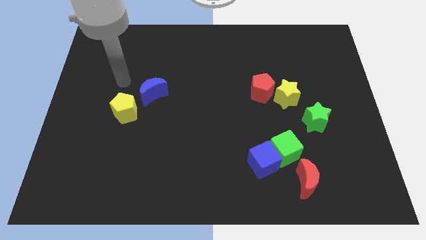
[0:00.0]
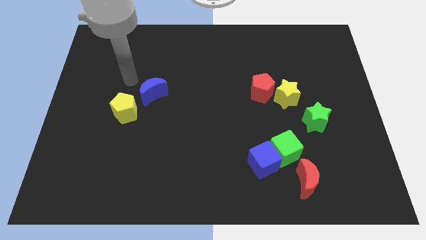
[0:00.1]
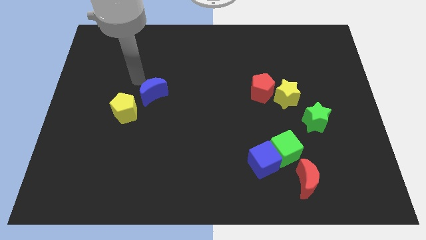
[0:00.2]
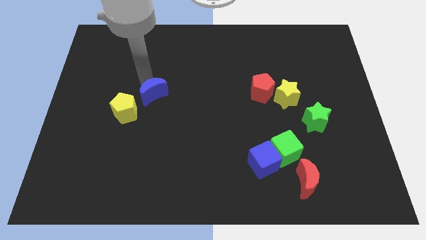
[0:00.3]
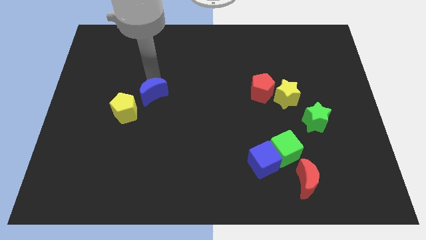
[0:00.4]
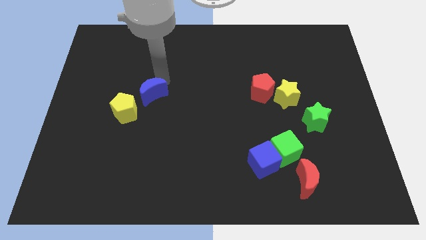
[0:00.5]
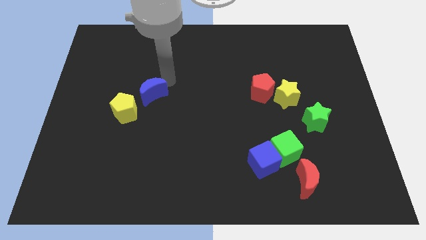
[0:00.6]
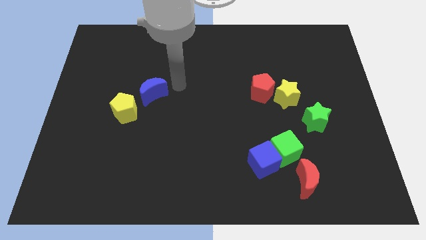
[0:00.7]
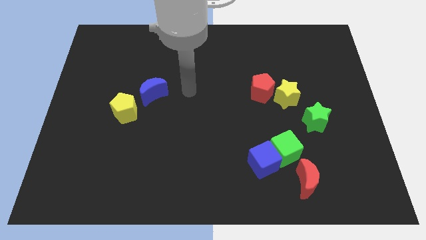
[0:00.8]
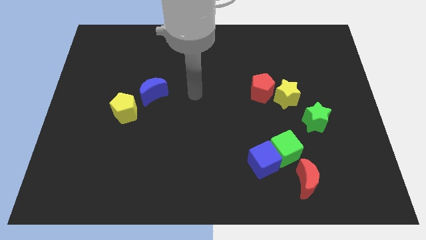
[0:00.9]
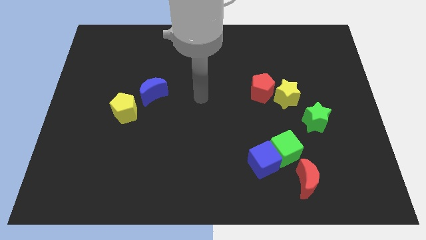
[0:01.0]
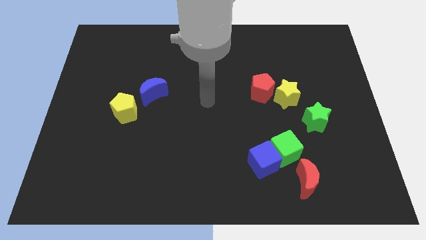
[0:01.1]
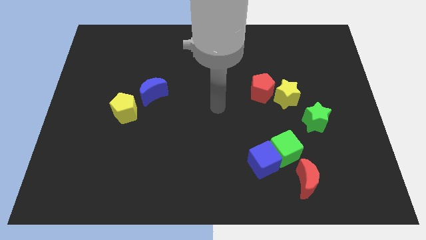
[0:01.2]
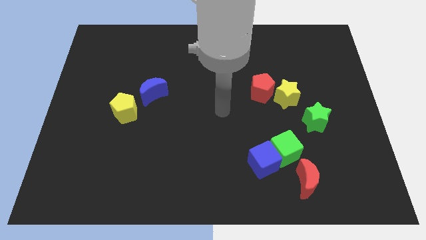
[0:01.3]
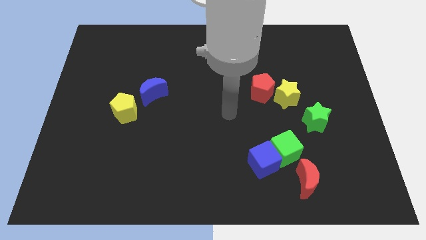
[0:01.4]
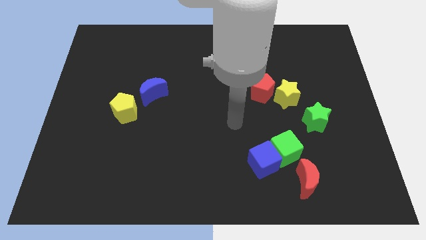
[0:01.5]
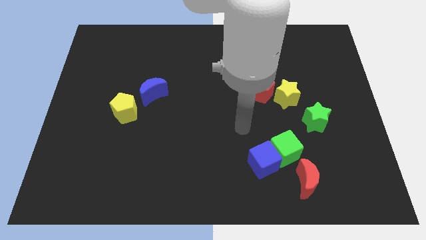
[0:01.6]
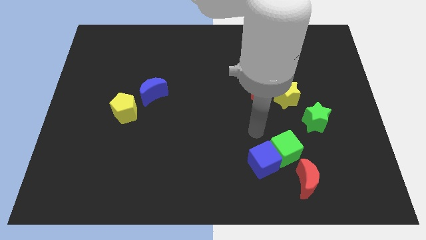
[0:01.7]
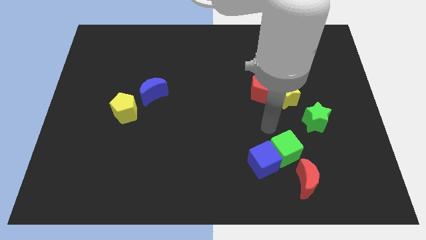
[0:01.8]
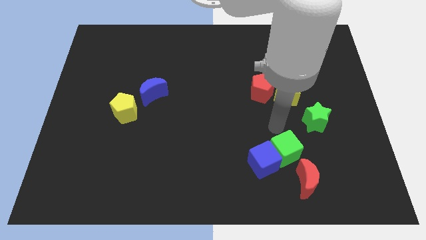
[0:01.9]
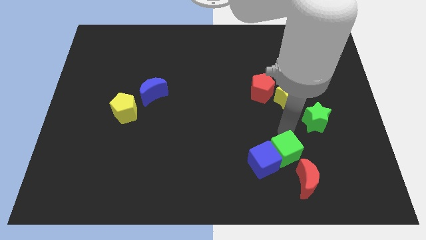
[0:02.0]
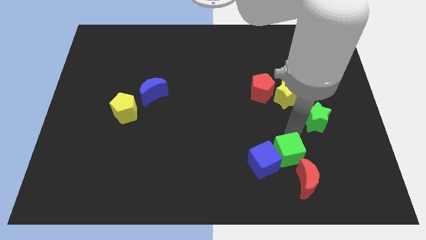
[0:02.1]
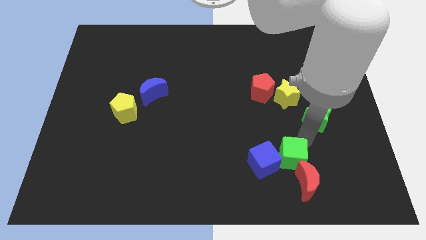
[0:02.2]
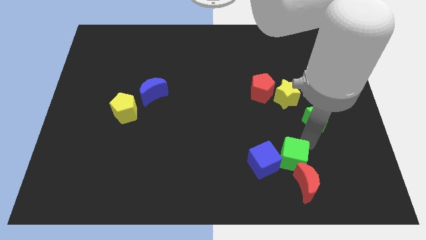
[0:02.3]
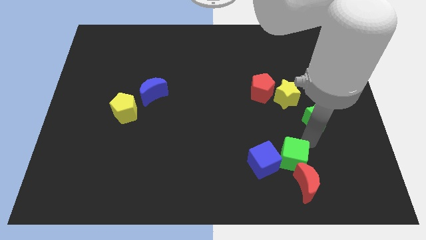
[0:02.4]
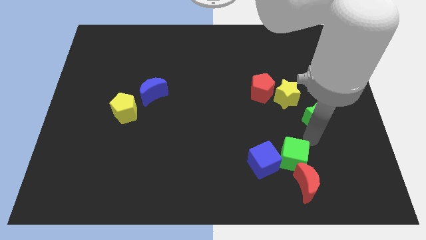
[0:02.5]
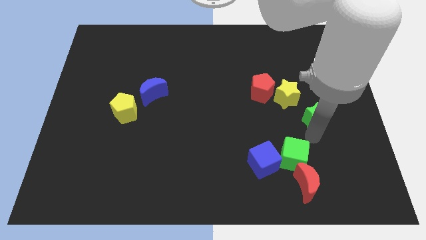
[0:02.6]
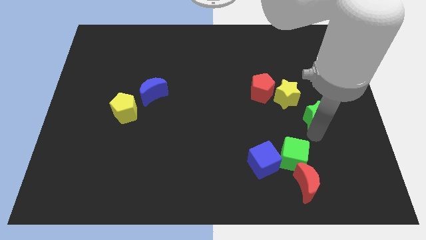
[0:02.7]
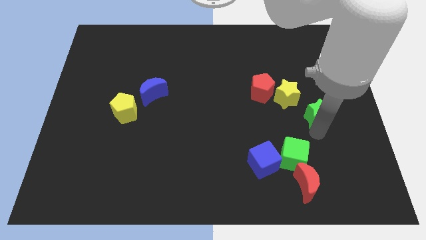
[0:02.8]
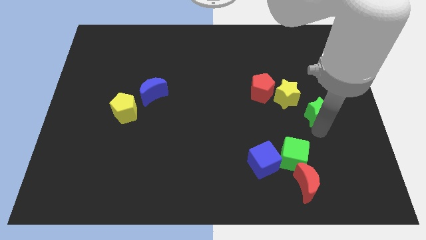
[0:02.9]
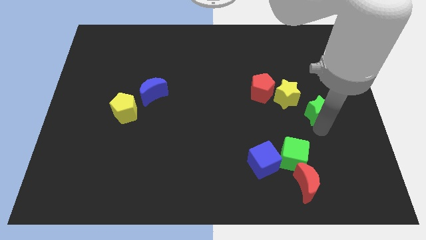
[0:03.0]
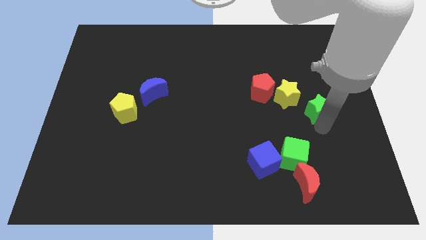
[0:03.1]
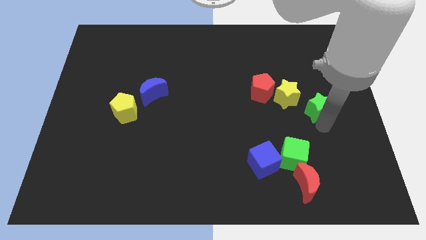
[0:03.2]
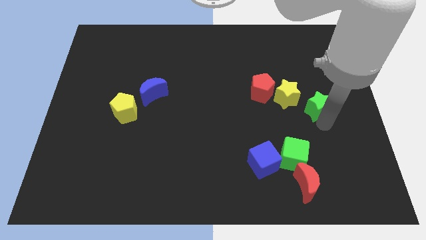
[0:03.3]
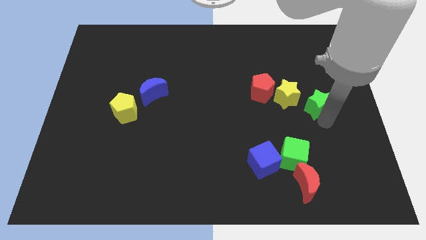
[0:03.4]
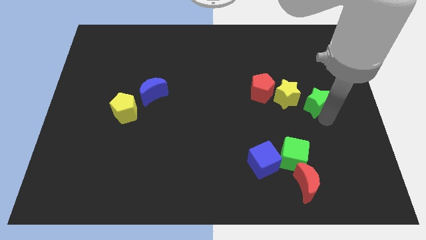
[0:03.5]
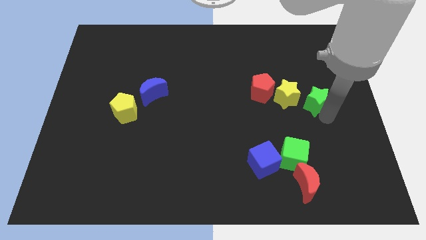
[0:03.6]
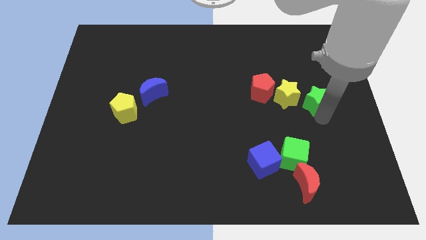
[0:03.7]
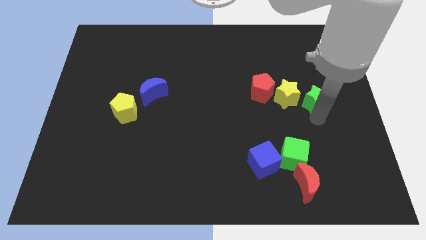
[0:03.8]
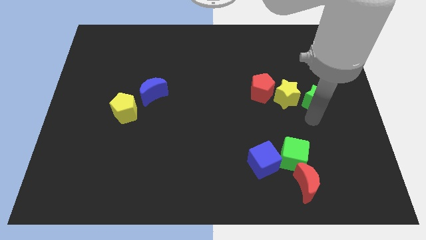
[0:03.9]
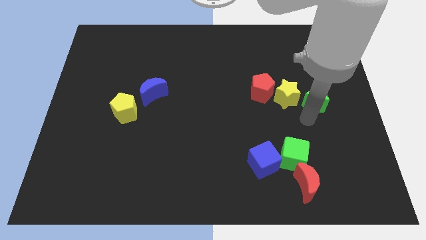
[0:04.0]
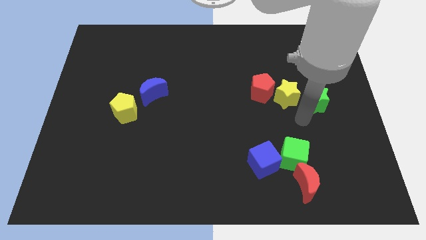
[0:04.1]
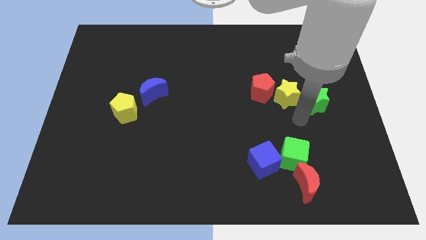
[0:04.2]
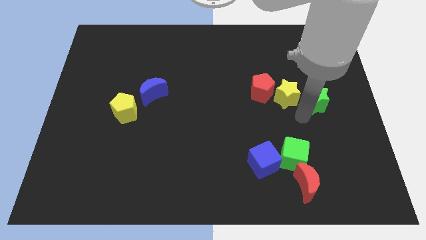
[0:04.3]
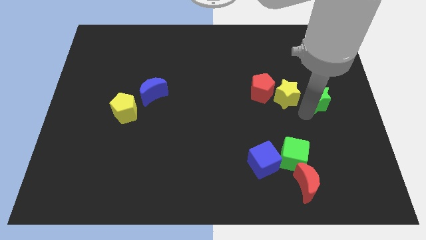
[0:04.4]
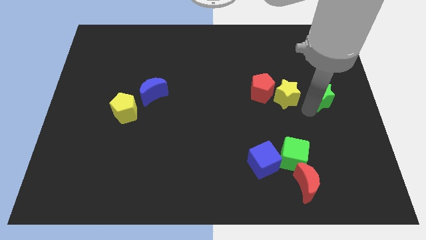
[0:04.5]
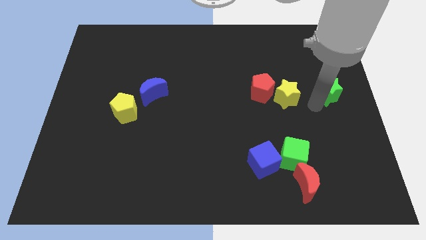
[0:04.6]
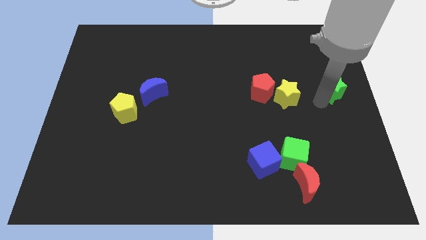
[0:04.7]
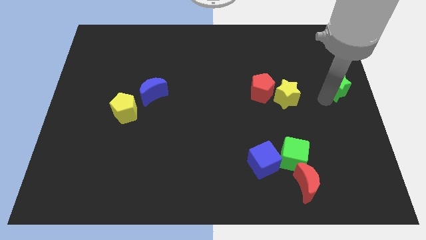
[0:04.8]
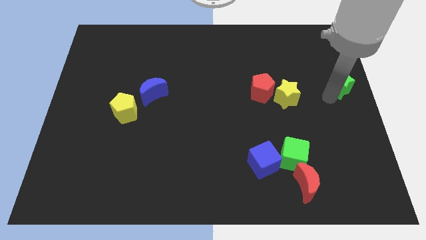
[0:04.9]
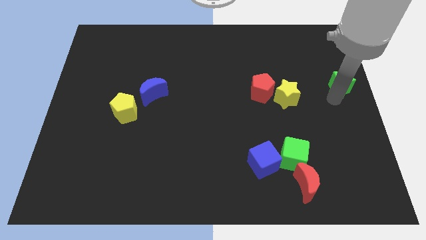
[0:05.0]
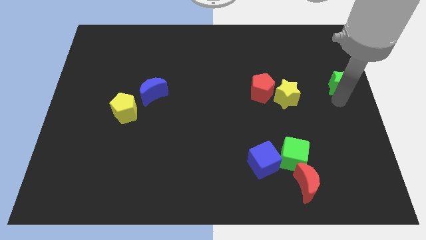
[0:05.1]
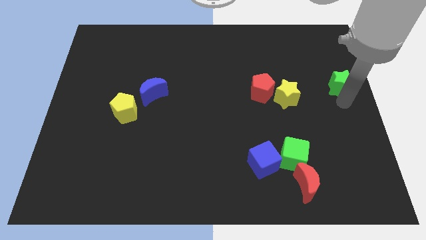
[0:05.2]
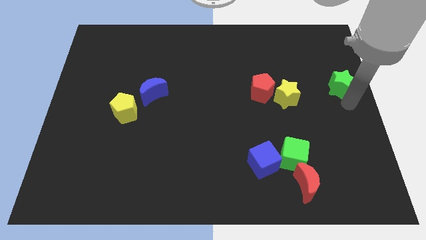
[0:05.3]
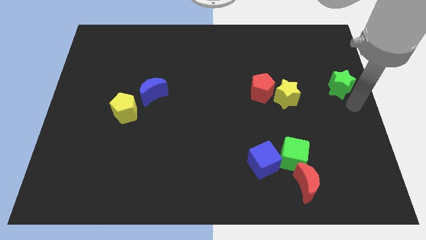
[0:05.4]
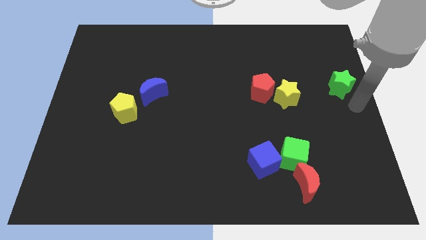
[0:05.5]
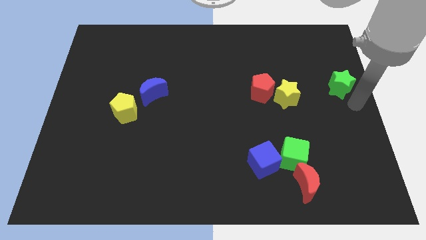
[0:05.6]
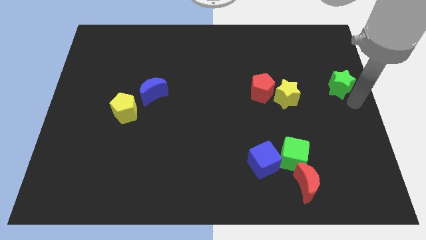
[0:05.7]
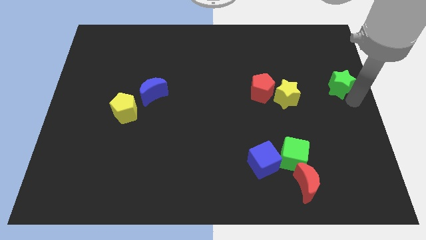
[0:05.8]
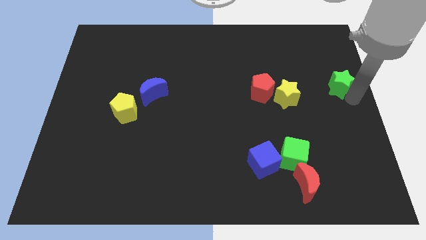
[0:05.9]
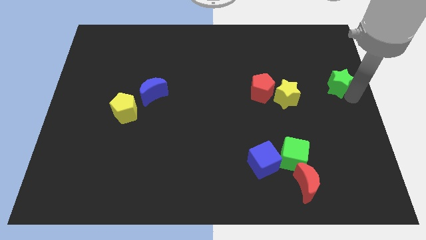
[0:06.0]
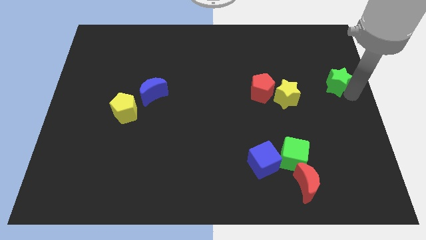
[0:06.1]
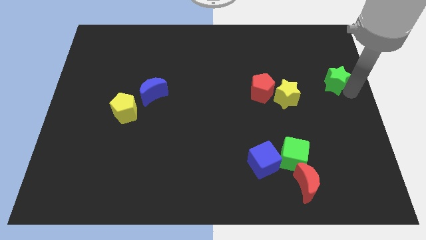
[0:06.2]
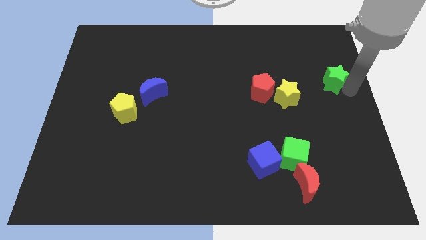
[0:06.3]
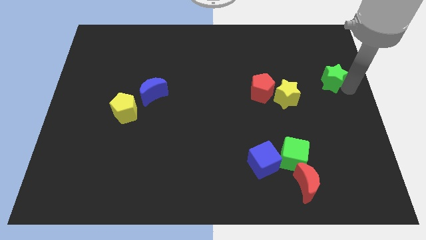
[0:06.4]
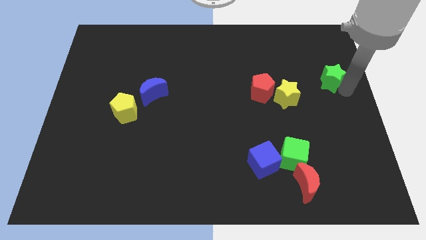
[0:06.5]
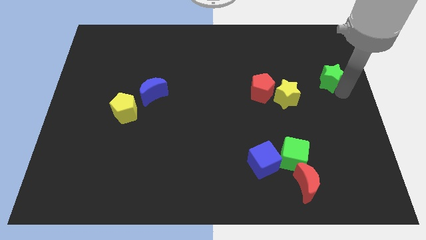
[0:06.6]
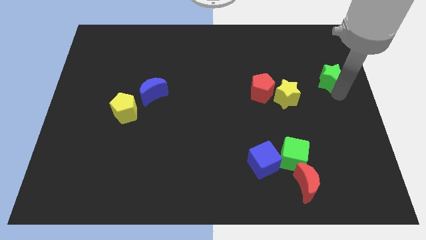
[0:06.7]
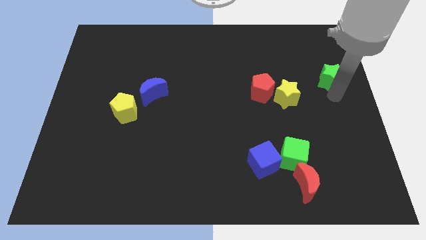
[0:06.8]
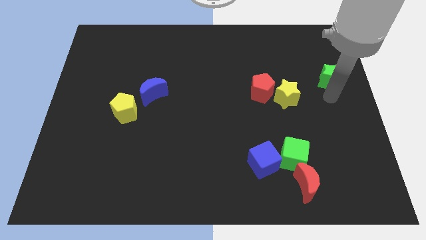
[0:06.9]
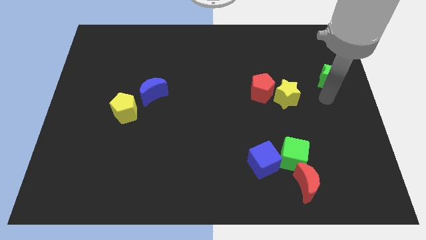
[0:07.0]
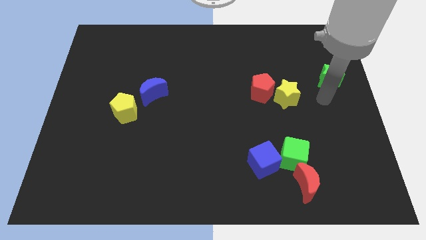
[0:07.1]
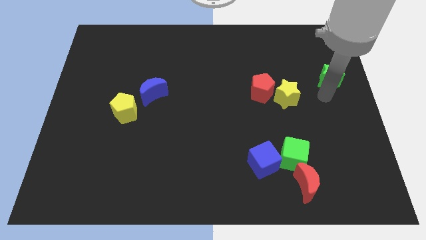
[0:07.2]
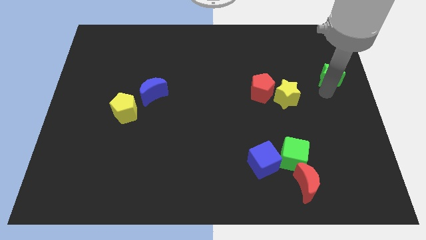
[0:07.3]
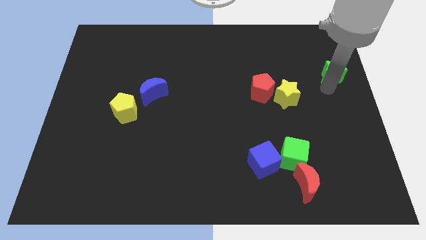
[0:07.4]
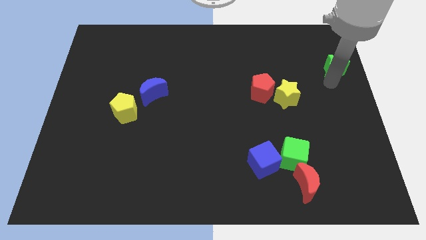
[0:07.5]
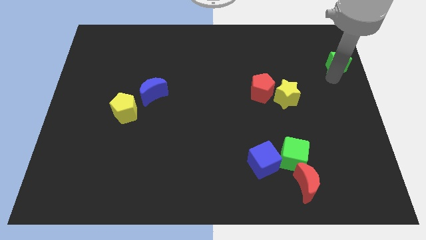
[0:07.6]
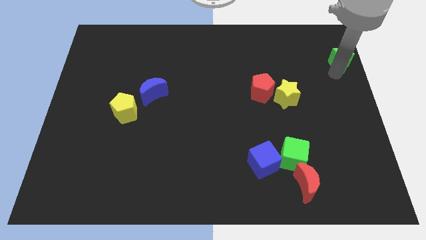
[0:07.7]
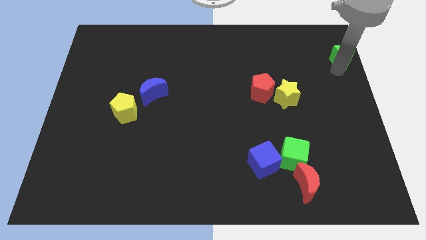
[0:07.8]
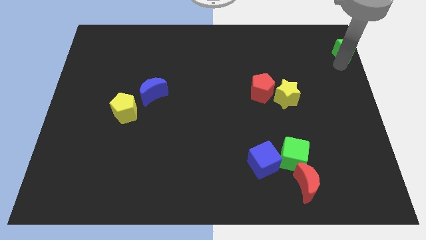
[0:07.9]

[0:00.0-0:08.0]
push the green star to the upper right corner
